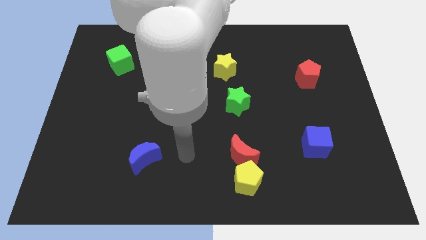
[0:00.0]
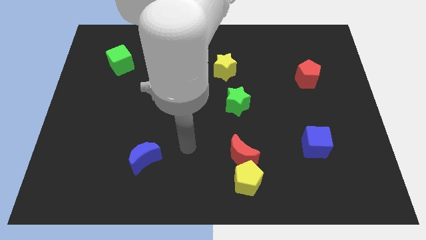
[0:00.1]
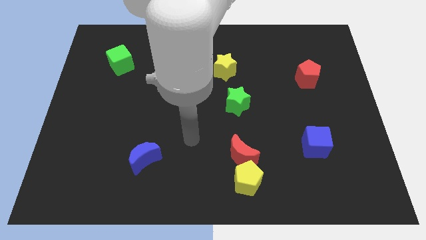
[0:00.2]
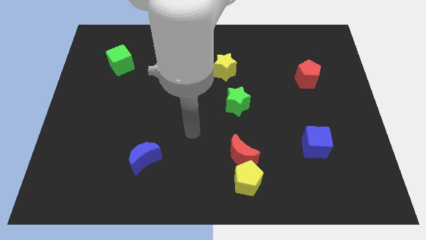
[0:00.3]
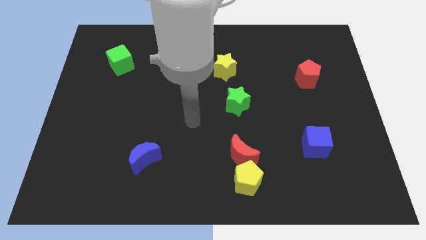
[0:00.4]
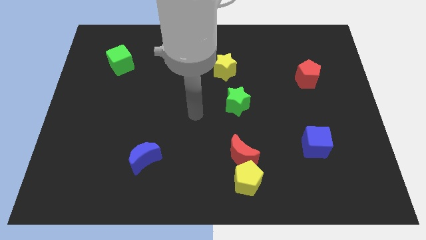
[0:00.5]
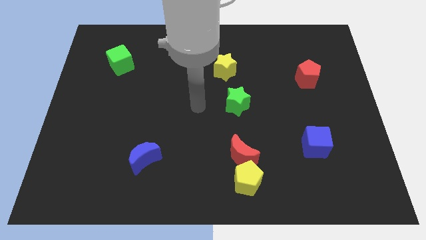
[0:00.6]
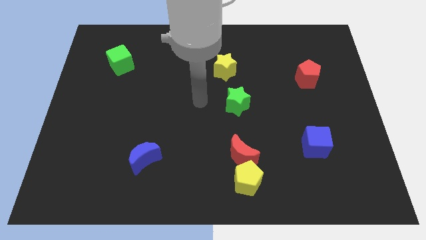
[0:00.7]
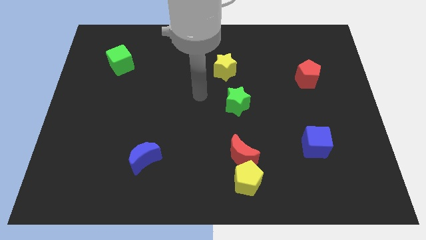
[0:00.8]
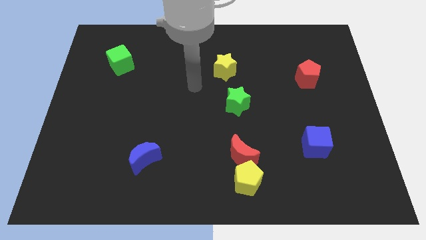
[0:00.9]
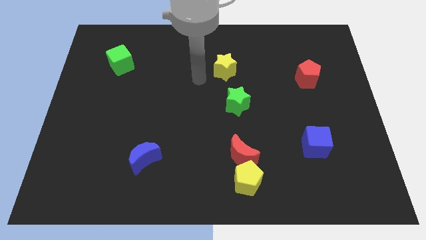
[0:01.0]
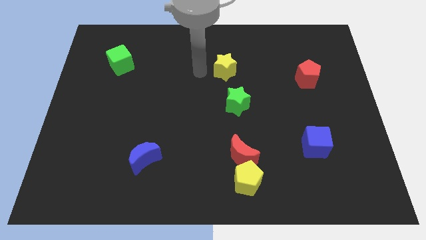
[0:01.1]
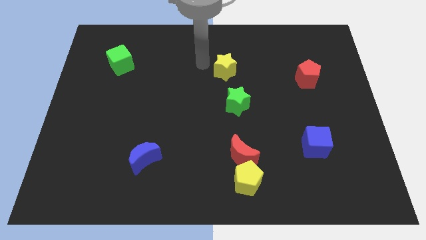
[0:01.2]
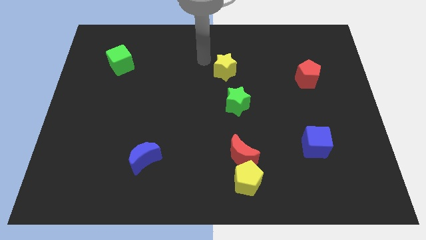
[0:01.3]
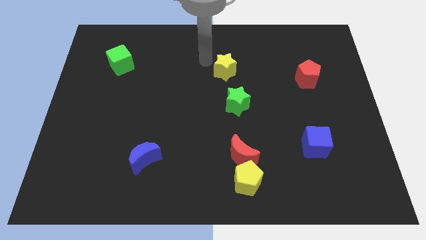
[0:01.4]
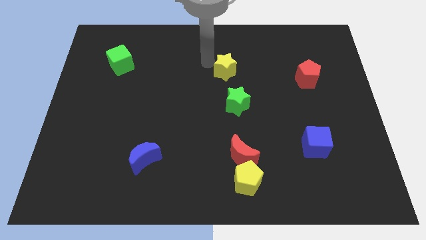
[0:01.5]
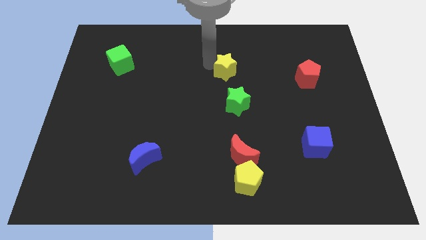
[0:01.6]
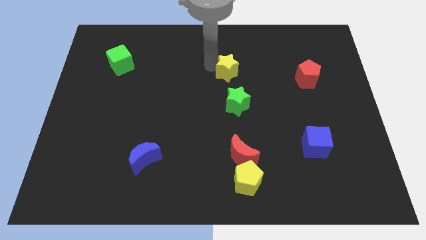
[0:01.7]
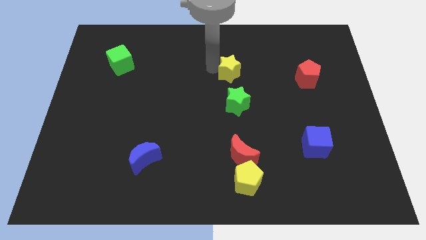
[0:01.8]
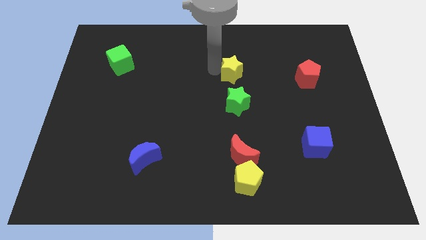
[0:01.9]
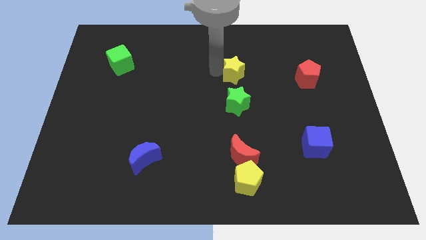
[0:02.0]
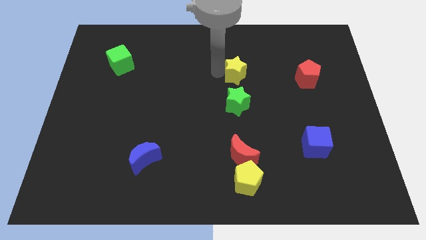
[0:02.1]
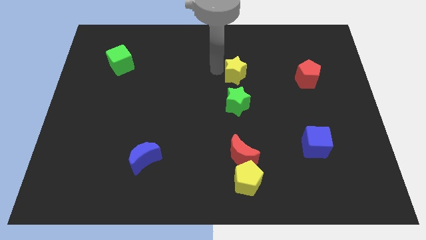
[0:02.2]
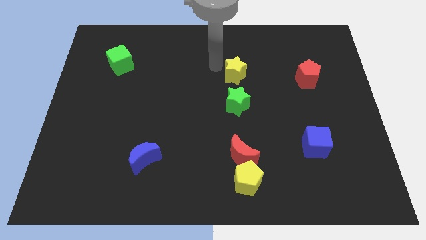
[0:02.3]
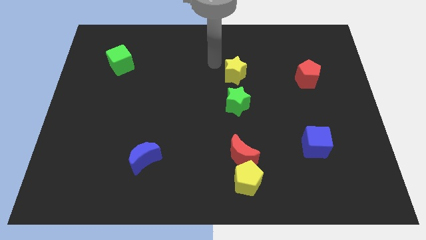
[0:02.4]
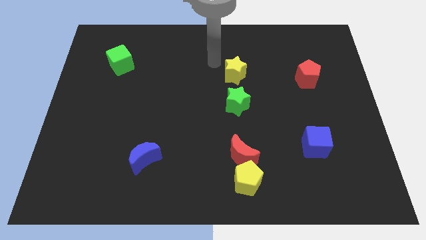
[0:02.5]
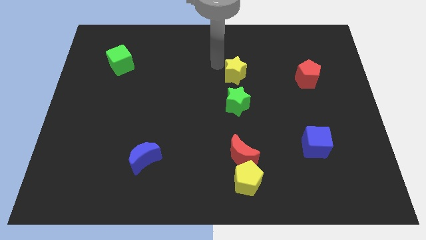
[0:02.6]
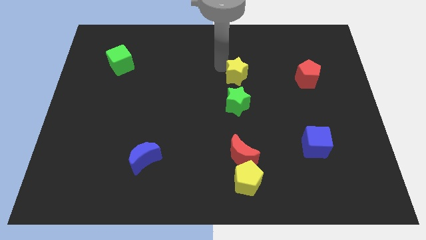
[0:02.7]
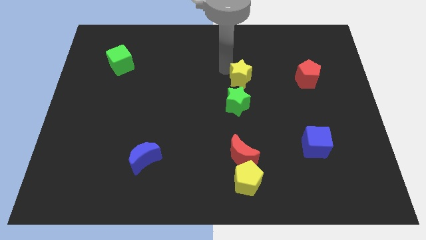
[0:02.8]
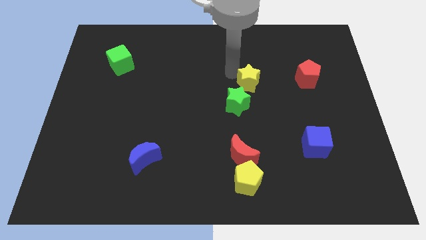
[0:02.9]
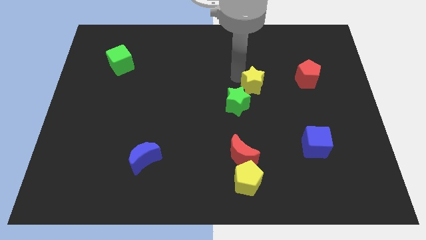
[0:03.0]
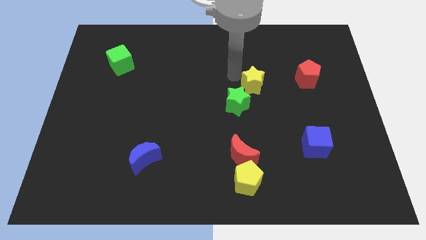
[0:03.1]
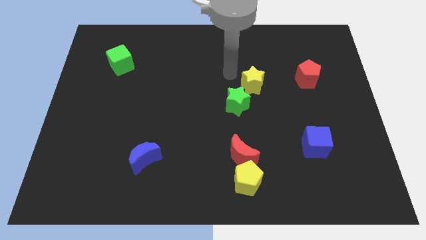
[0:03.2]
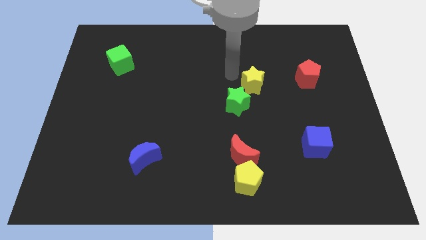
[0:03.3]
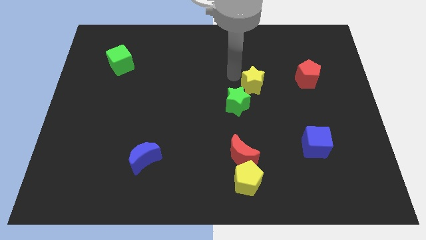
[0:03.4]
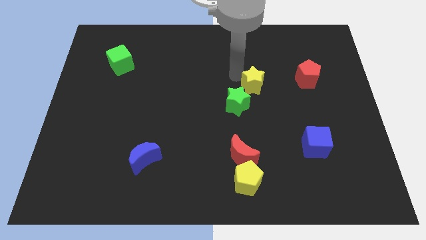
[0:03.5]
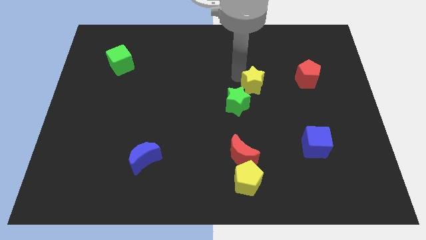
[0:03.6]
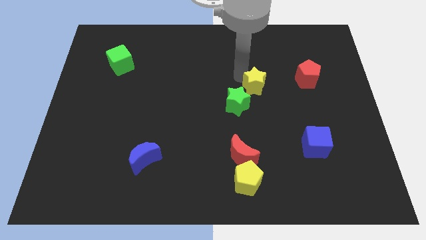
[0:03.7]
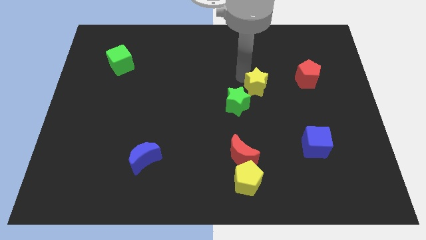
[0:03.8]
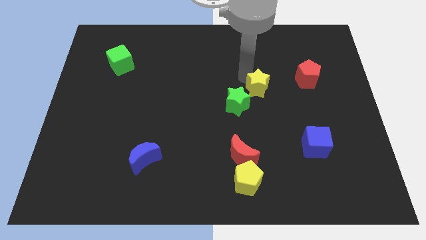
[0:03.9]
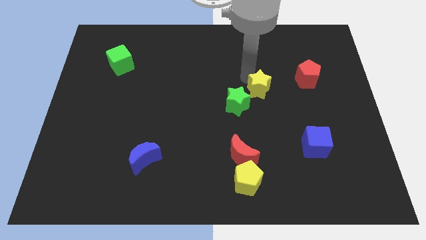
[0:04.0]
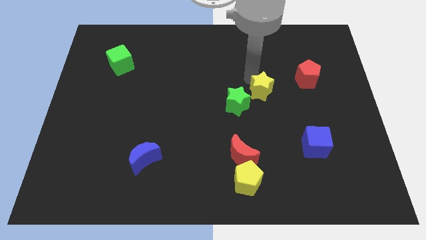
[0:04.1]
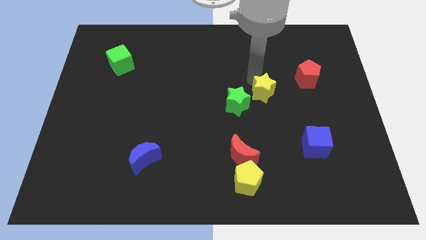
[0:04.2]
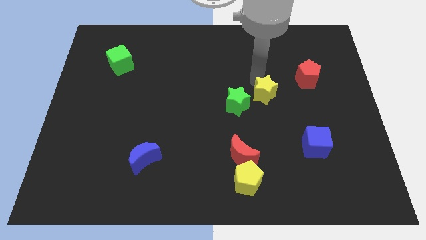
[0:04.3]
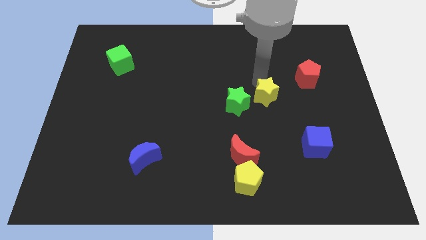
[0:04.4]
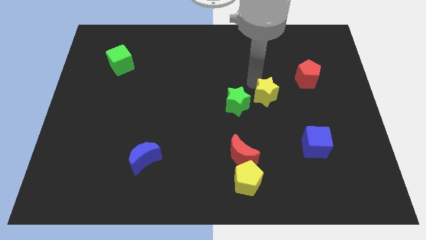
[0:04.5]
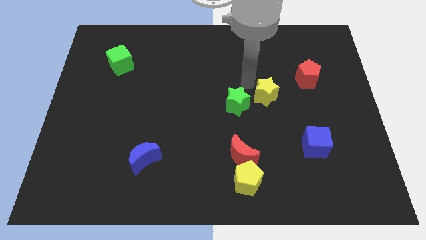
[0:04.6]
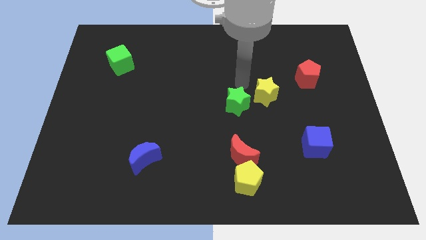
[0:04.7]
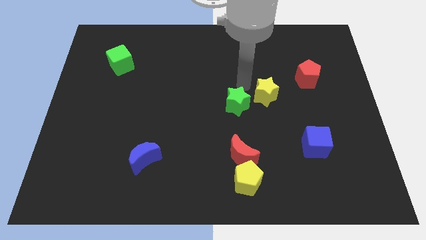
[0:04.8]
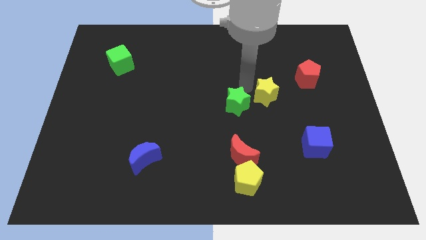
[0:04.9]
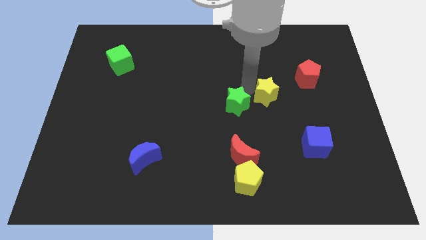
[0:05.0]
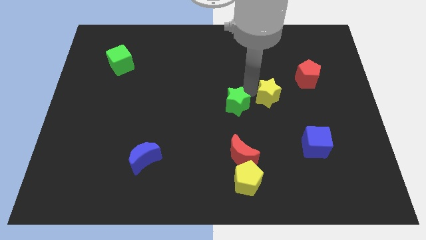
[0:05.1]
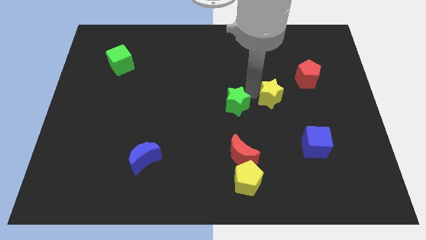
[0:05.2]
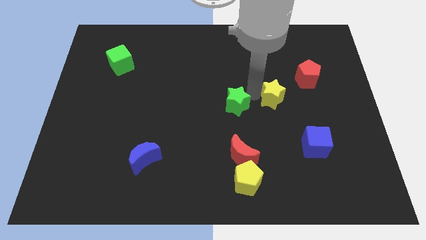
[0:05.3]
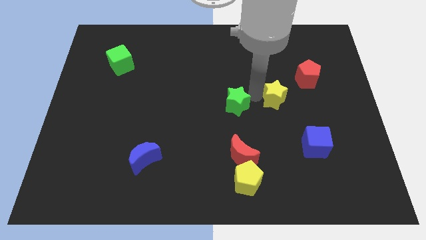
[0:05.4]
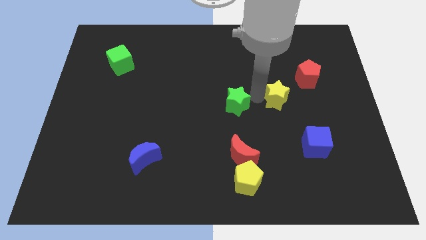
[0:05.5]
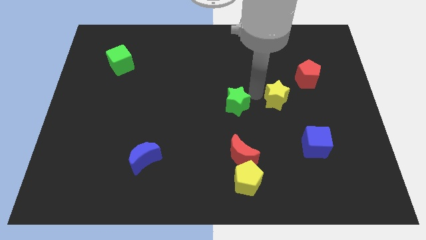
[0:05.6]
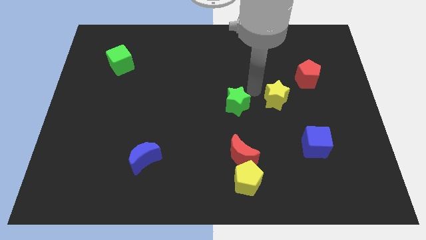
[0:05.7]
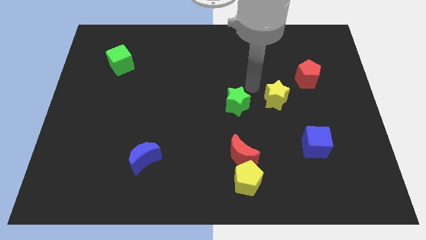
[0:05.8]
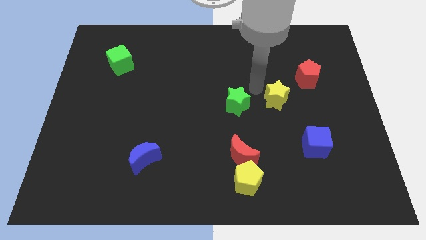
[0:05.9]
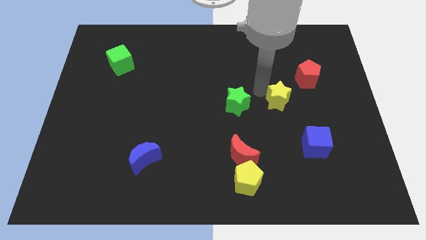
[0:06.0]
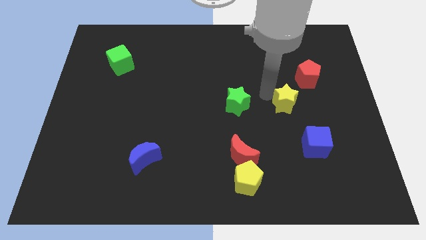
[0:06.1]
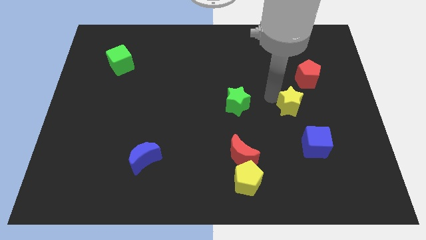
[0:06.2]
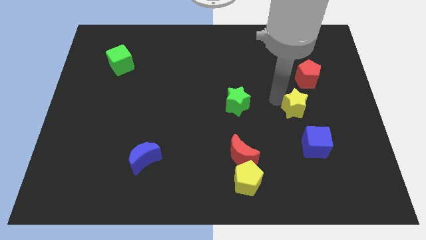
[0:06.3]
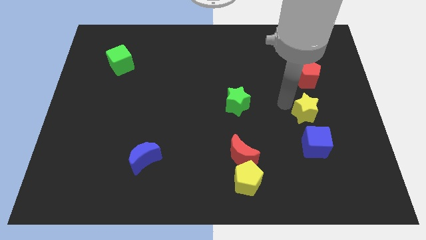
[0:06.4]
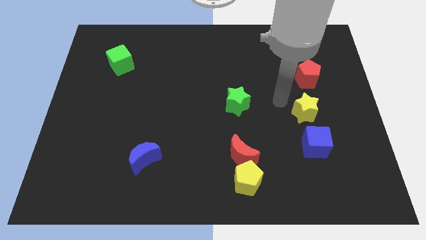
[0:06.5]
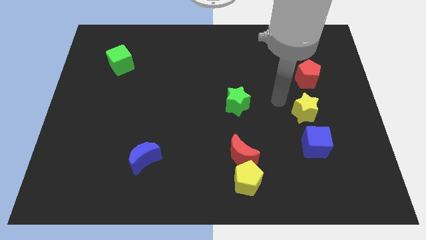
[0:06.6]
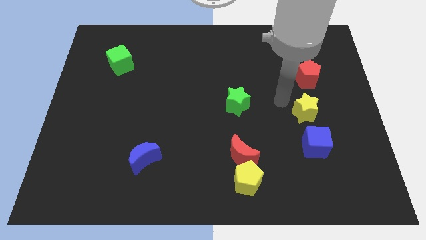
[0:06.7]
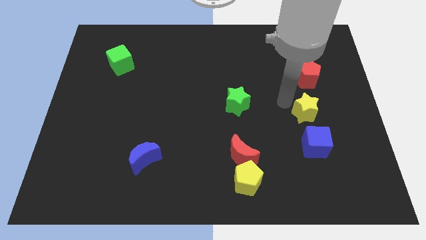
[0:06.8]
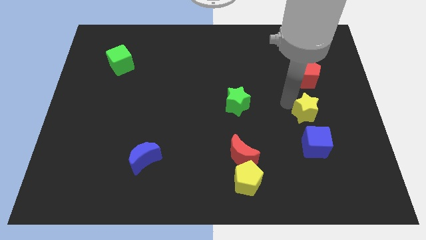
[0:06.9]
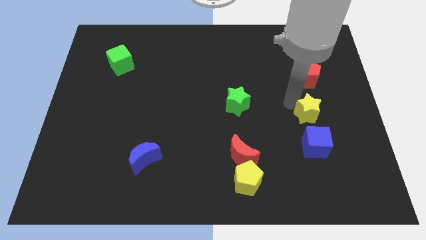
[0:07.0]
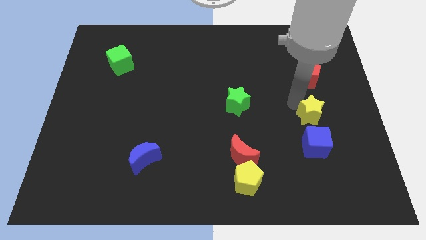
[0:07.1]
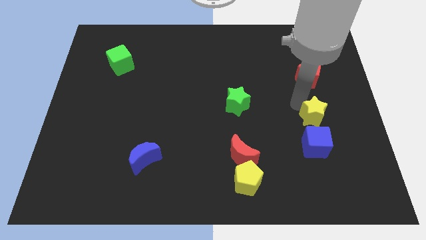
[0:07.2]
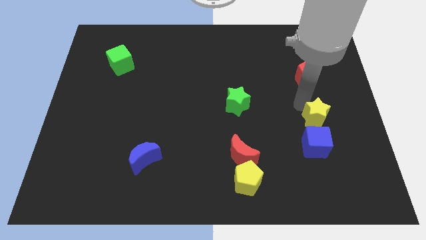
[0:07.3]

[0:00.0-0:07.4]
move the yellow star to the top right of the blue cube
